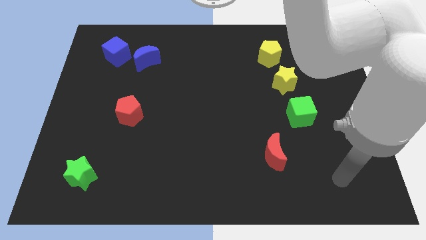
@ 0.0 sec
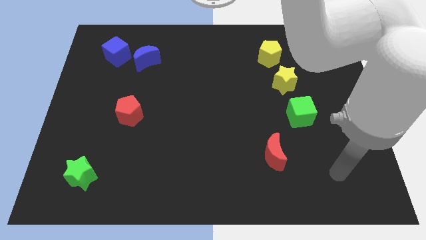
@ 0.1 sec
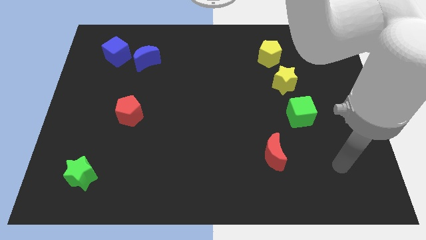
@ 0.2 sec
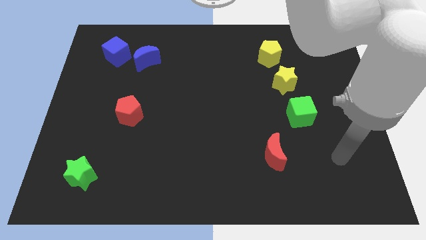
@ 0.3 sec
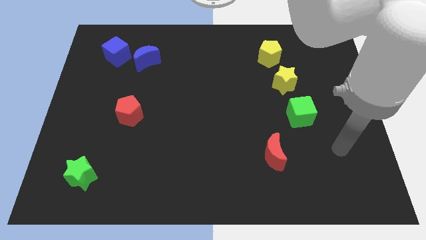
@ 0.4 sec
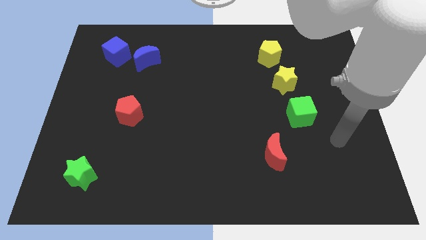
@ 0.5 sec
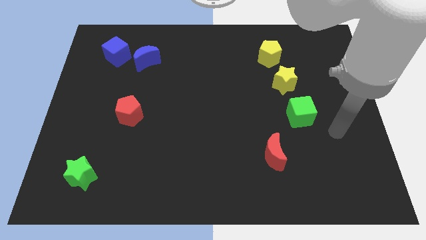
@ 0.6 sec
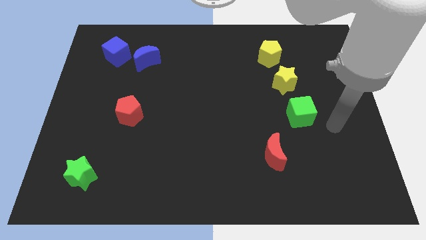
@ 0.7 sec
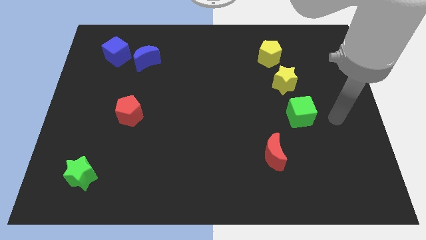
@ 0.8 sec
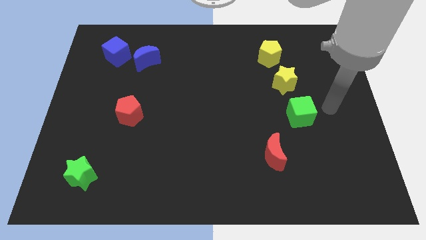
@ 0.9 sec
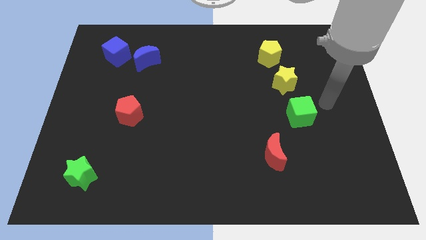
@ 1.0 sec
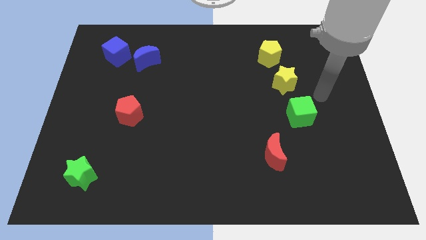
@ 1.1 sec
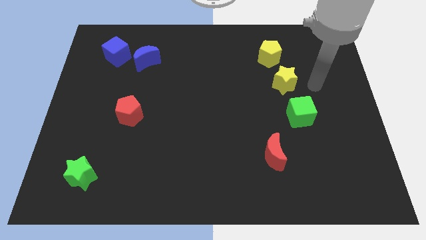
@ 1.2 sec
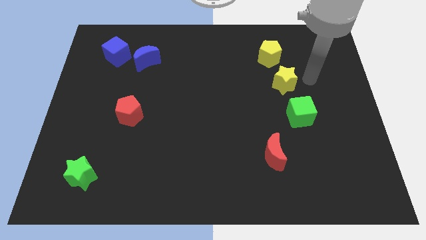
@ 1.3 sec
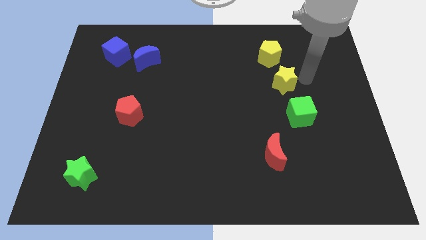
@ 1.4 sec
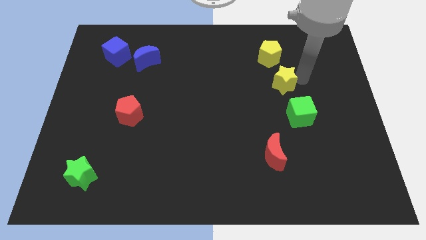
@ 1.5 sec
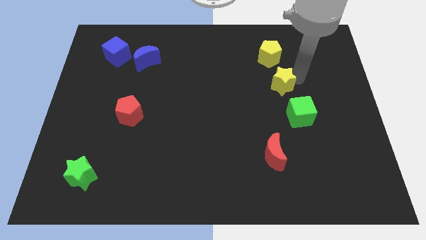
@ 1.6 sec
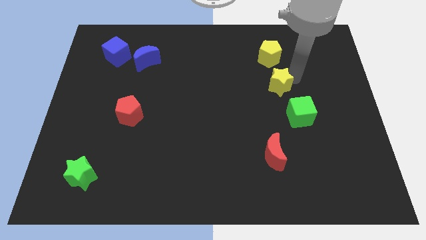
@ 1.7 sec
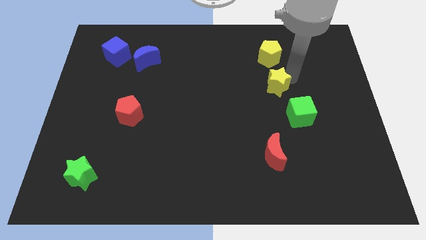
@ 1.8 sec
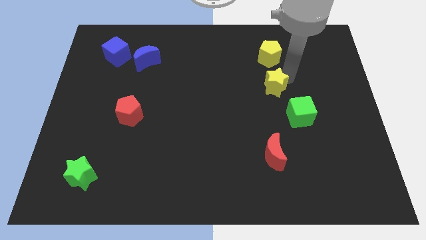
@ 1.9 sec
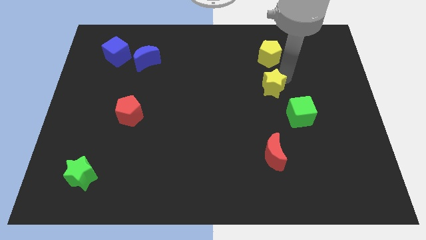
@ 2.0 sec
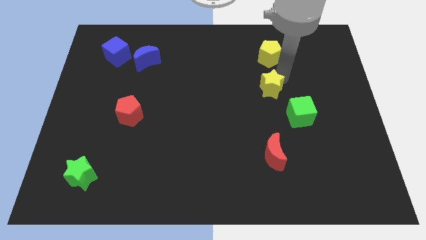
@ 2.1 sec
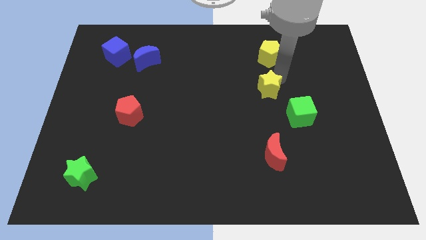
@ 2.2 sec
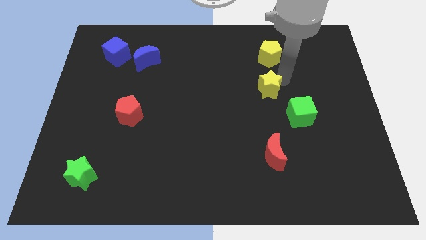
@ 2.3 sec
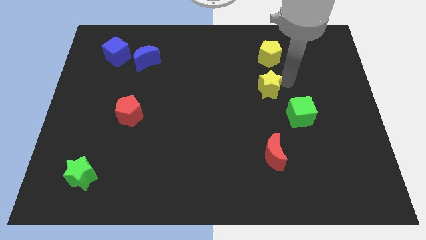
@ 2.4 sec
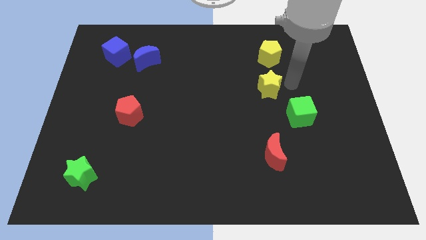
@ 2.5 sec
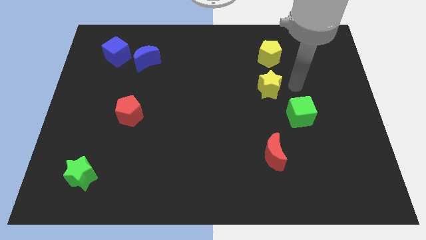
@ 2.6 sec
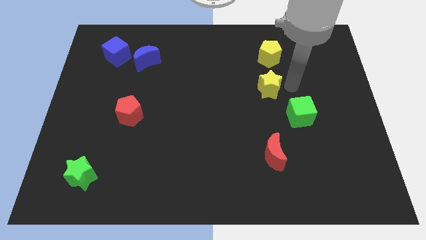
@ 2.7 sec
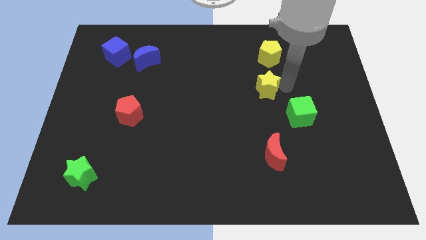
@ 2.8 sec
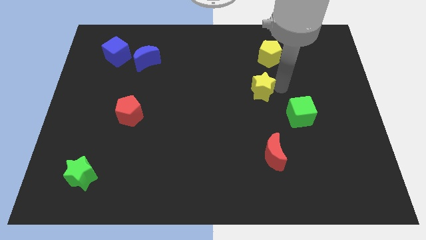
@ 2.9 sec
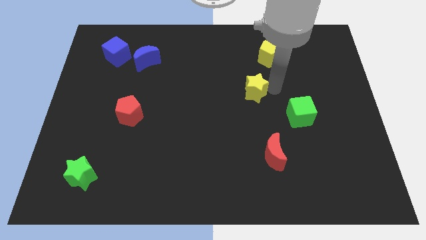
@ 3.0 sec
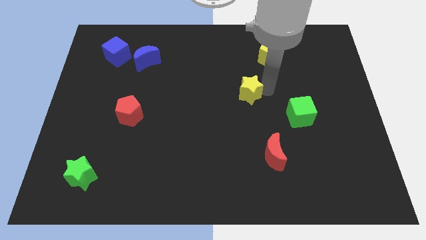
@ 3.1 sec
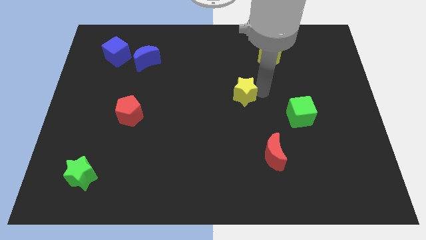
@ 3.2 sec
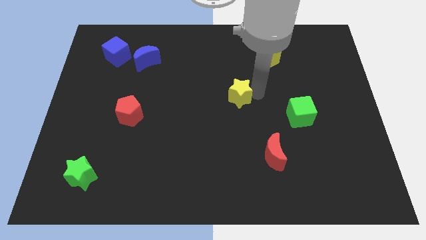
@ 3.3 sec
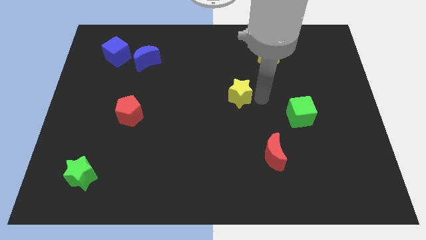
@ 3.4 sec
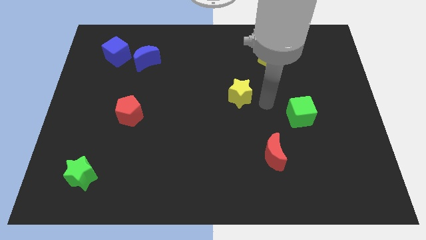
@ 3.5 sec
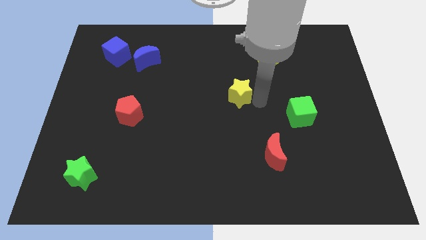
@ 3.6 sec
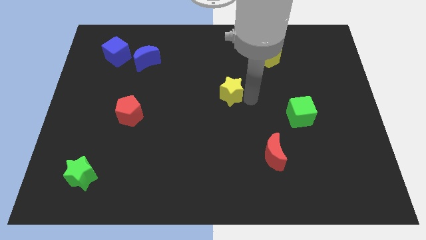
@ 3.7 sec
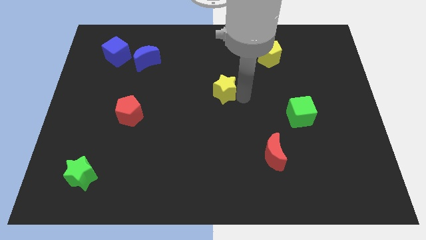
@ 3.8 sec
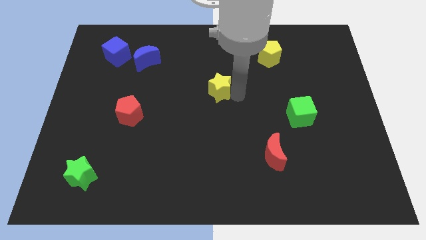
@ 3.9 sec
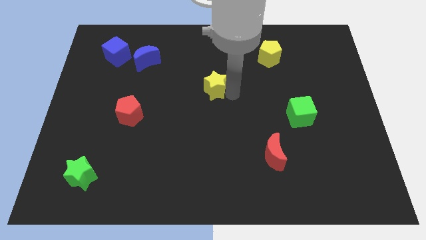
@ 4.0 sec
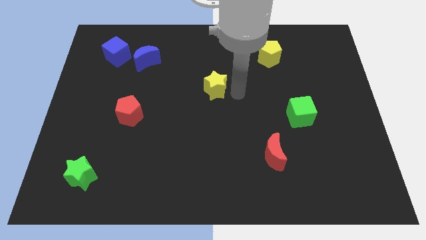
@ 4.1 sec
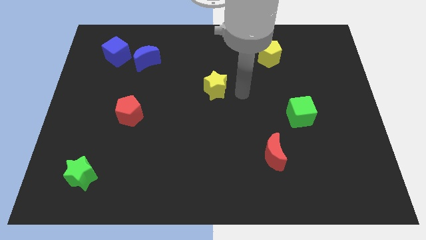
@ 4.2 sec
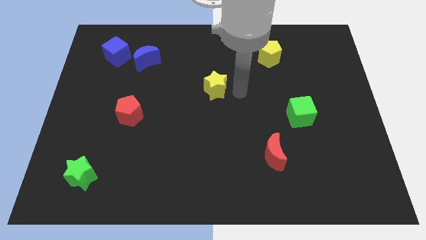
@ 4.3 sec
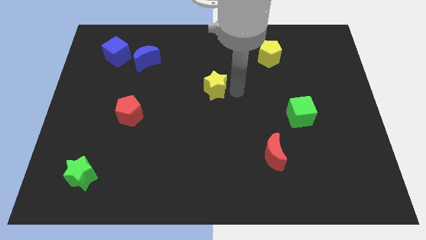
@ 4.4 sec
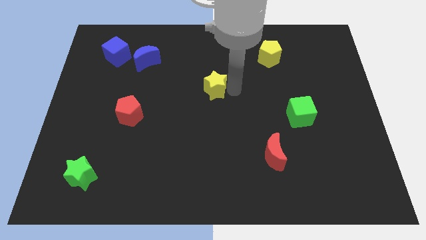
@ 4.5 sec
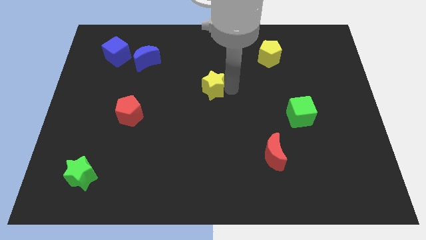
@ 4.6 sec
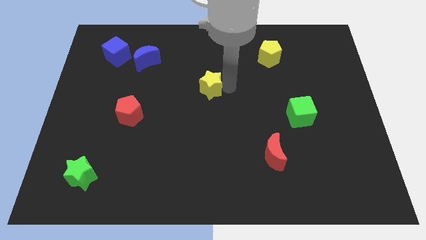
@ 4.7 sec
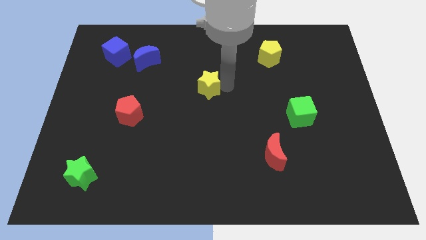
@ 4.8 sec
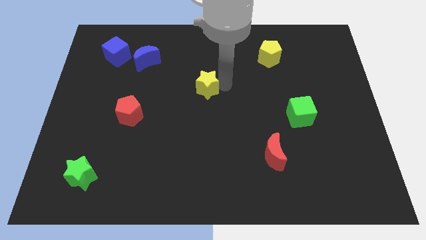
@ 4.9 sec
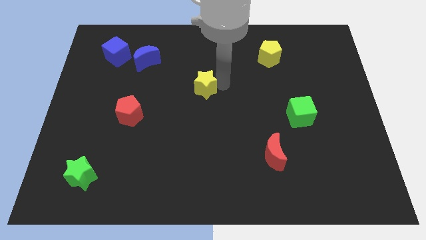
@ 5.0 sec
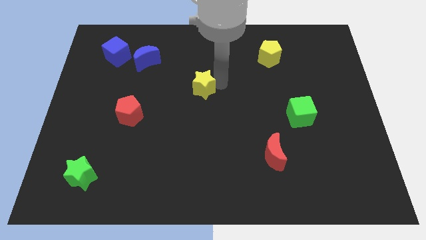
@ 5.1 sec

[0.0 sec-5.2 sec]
push the yellow star left

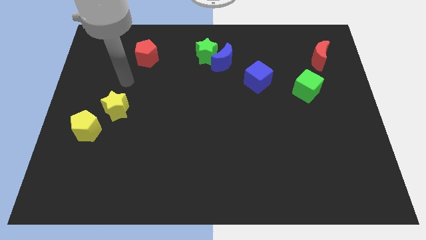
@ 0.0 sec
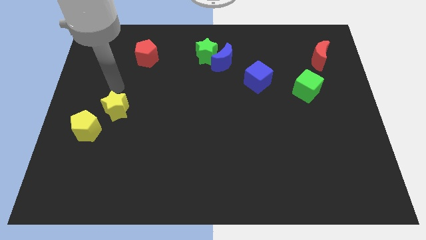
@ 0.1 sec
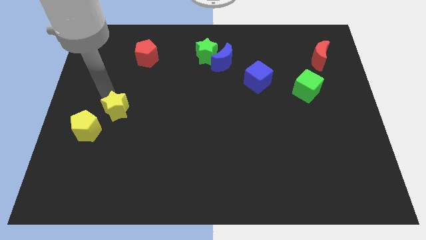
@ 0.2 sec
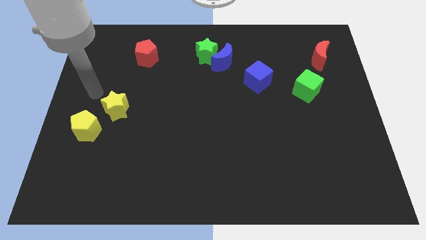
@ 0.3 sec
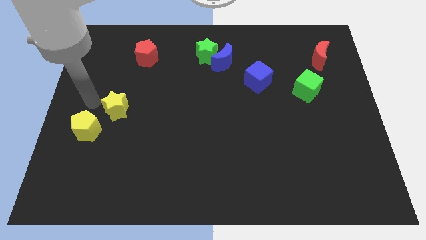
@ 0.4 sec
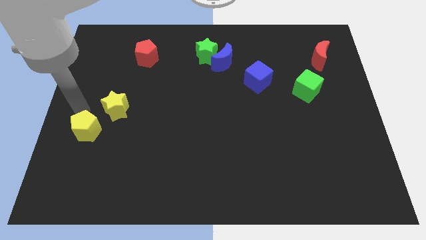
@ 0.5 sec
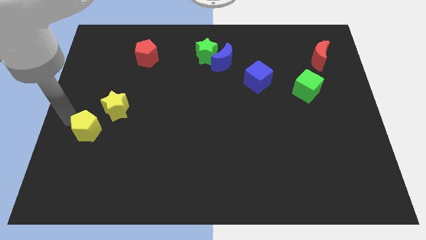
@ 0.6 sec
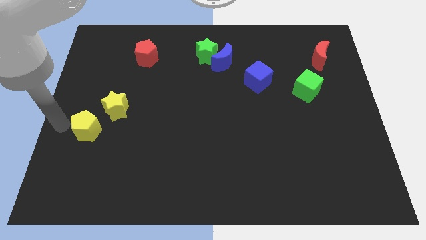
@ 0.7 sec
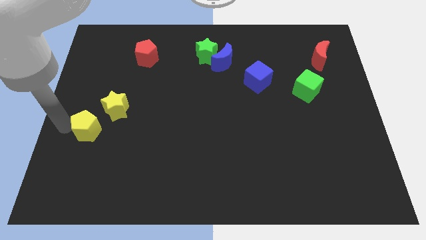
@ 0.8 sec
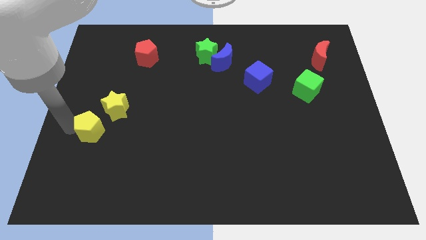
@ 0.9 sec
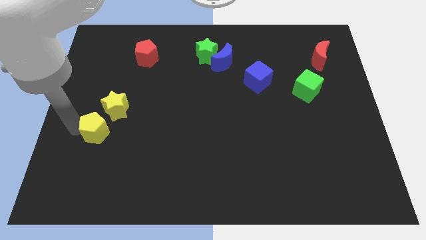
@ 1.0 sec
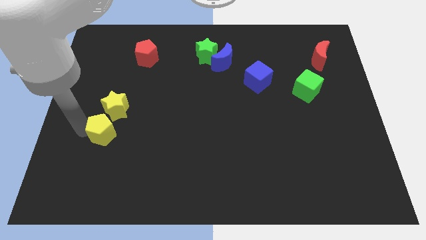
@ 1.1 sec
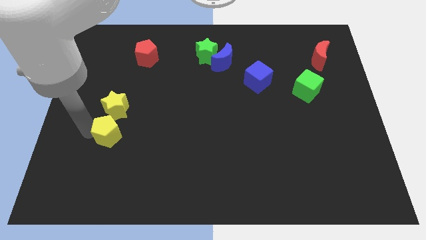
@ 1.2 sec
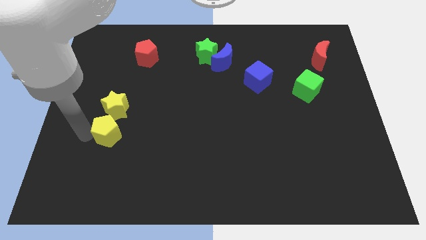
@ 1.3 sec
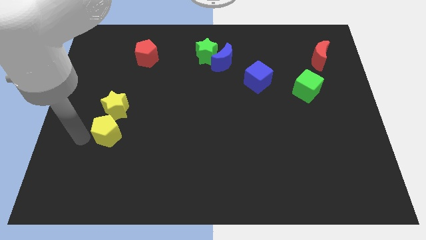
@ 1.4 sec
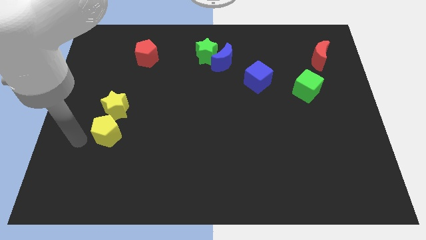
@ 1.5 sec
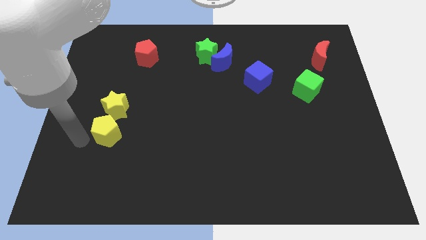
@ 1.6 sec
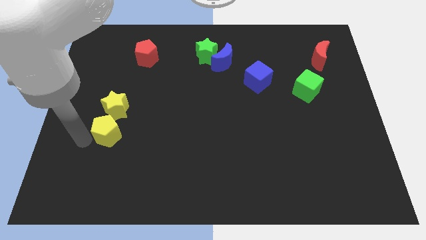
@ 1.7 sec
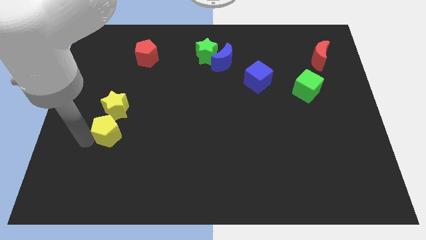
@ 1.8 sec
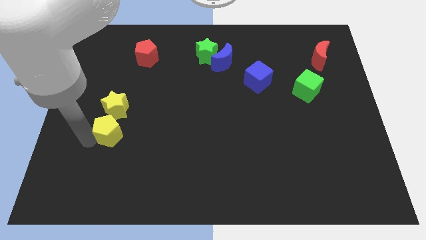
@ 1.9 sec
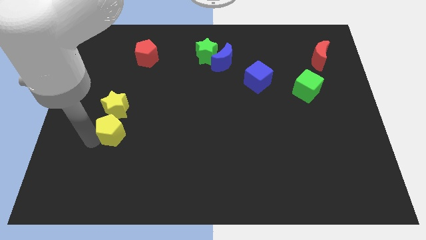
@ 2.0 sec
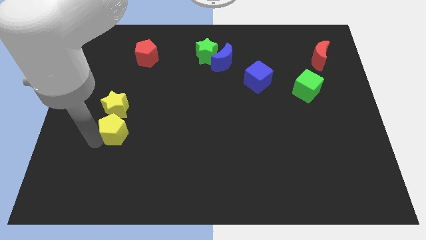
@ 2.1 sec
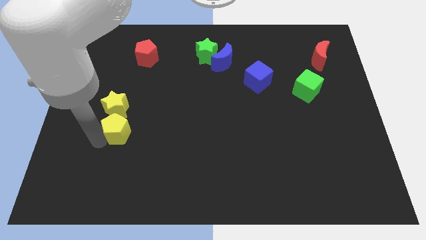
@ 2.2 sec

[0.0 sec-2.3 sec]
push the yellow pentagon right somewhat

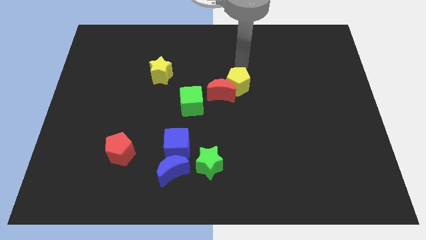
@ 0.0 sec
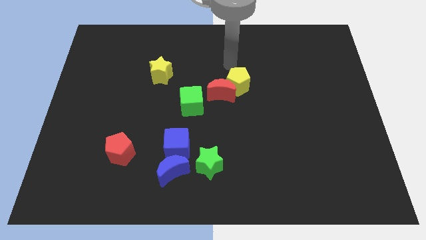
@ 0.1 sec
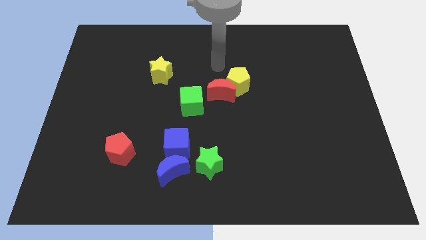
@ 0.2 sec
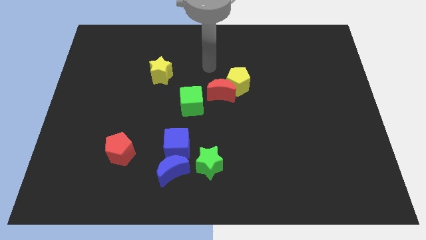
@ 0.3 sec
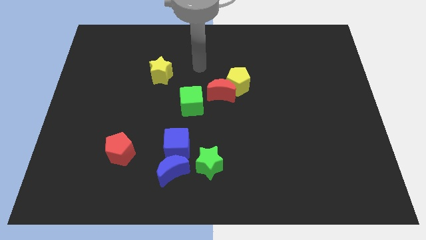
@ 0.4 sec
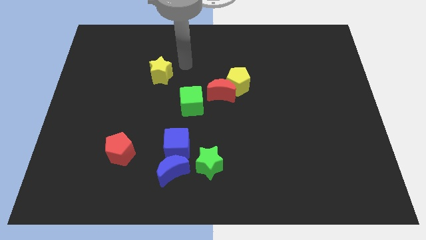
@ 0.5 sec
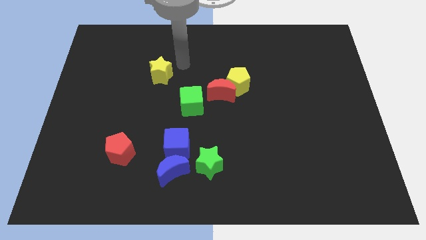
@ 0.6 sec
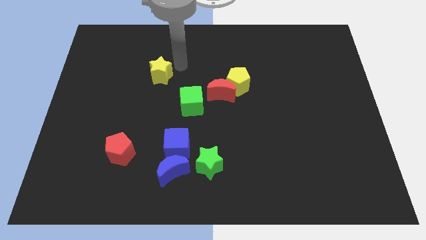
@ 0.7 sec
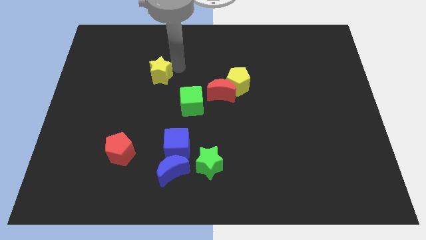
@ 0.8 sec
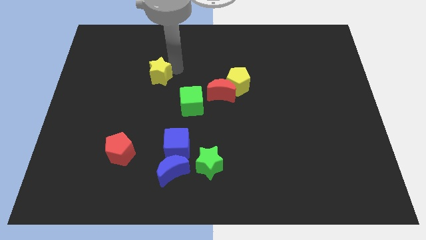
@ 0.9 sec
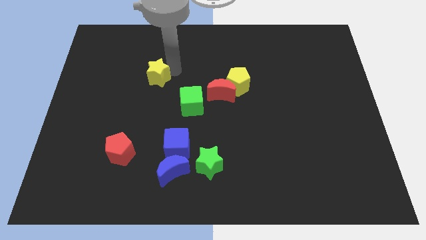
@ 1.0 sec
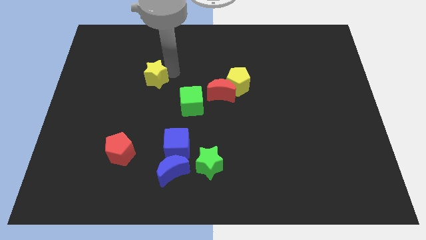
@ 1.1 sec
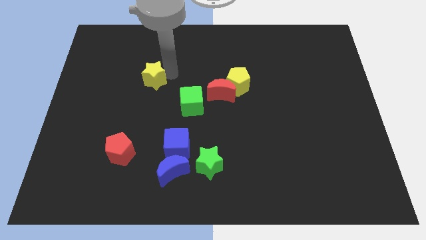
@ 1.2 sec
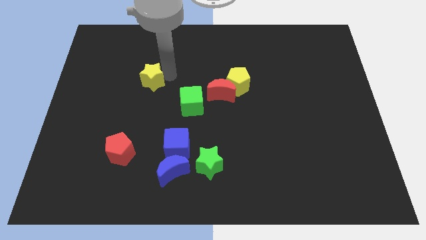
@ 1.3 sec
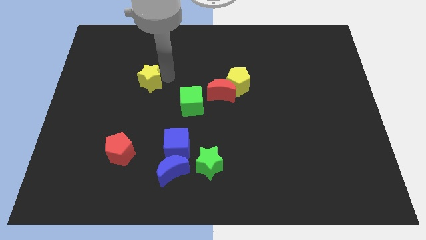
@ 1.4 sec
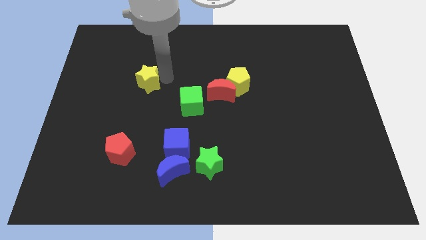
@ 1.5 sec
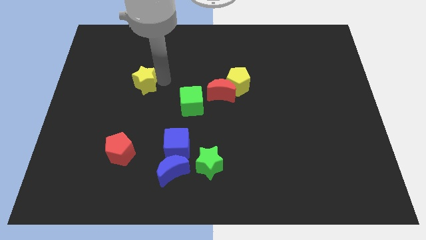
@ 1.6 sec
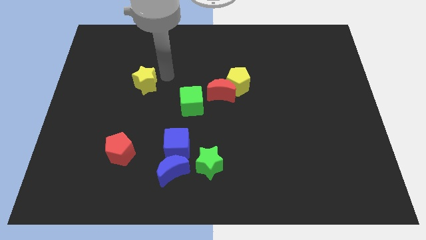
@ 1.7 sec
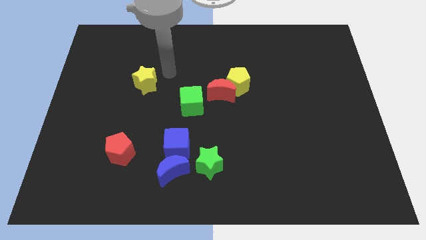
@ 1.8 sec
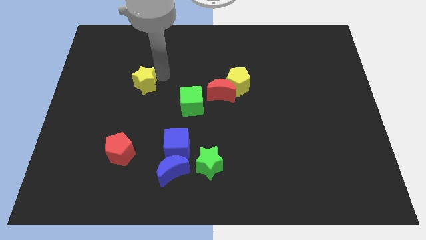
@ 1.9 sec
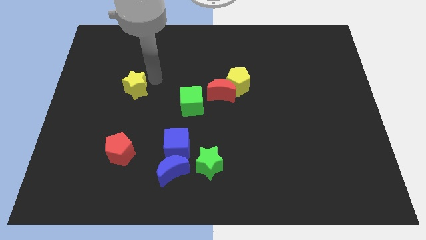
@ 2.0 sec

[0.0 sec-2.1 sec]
push the yellow star a little bit downwards and then left
